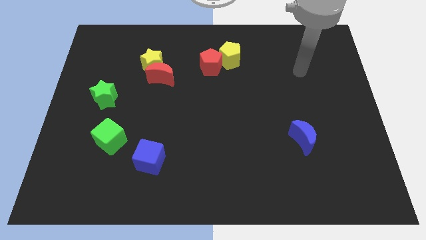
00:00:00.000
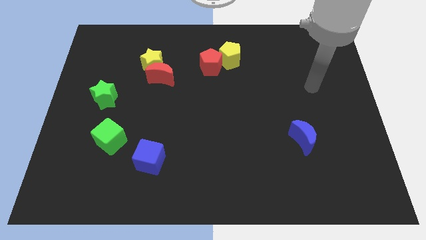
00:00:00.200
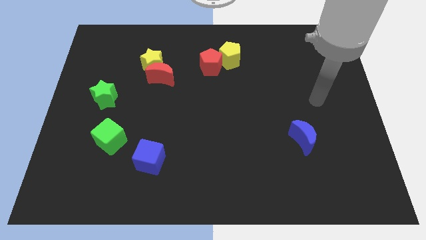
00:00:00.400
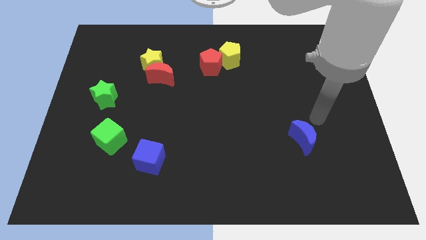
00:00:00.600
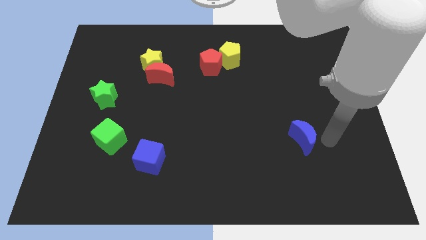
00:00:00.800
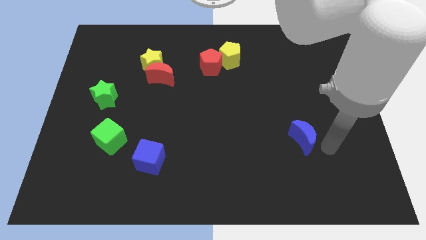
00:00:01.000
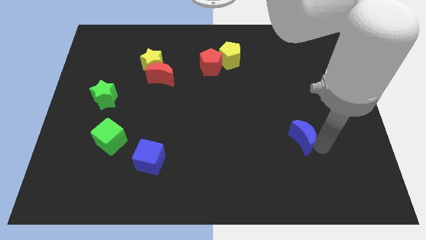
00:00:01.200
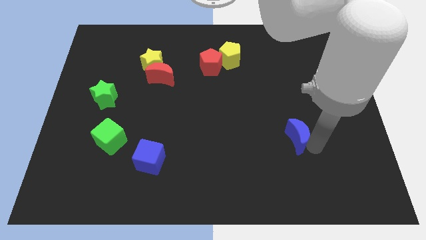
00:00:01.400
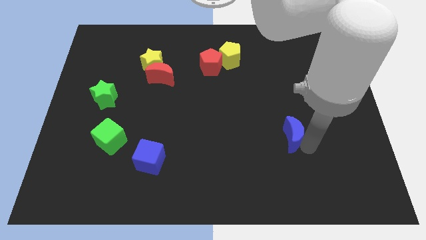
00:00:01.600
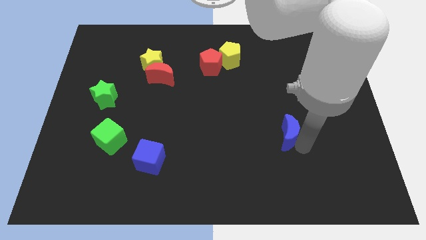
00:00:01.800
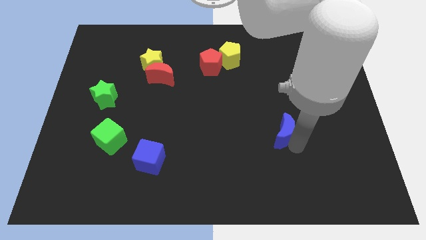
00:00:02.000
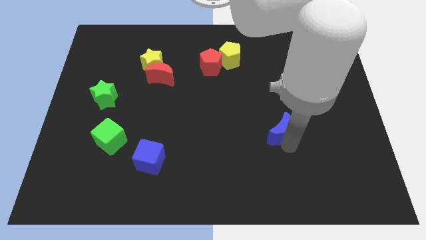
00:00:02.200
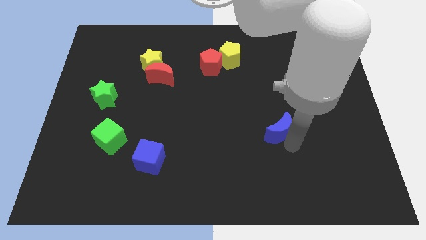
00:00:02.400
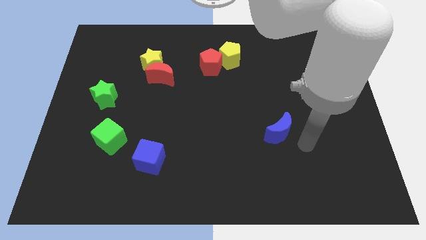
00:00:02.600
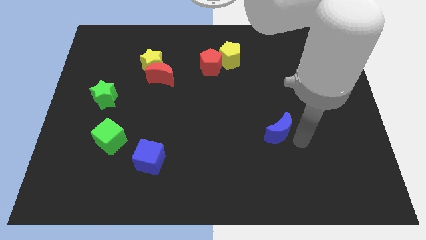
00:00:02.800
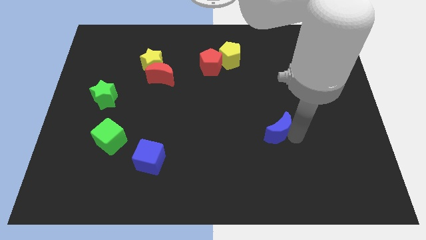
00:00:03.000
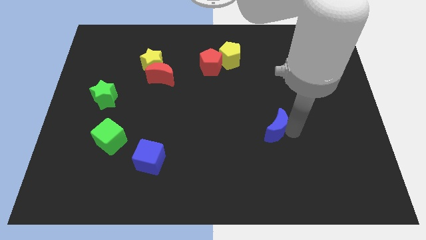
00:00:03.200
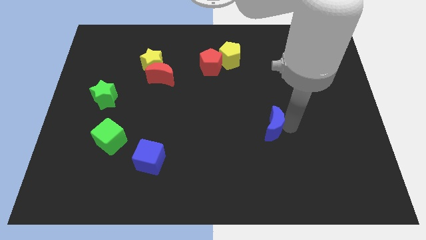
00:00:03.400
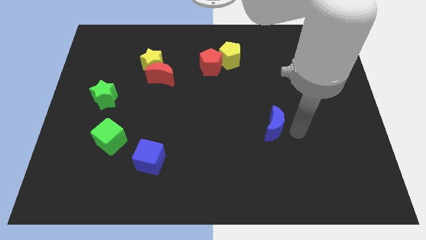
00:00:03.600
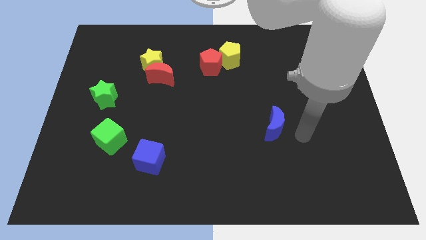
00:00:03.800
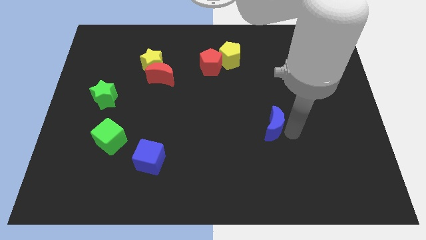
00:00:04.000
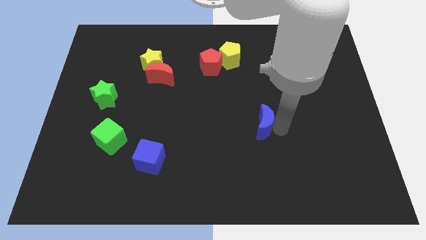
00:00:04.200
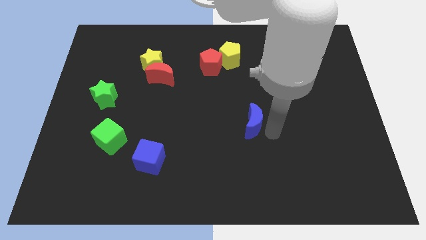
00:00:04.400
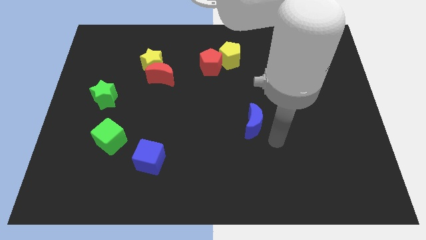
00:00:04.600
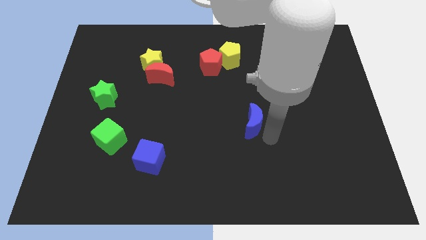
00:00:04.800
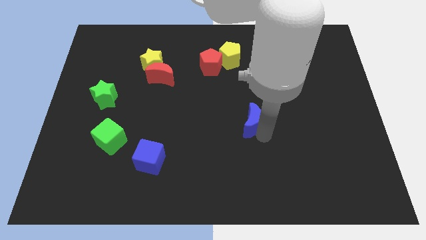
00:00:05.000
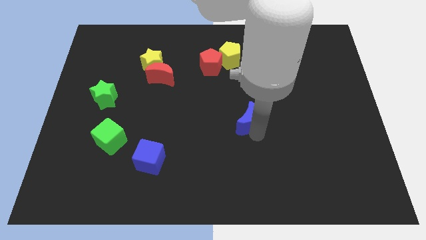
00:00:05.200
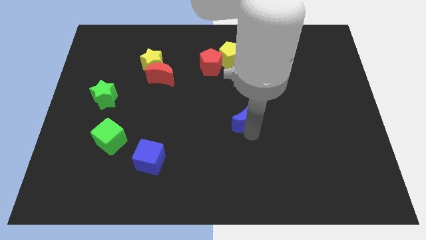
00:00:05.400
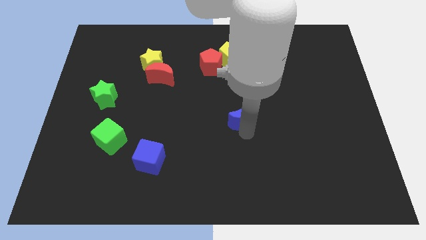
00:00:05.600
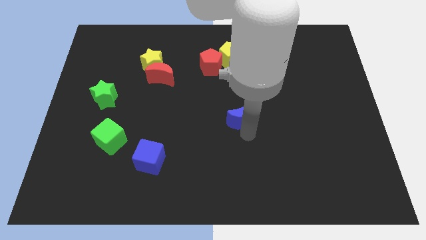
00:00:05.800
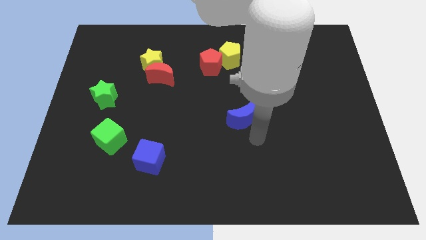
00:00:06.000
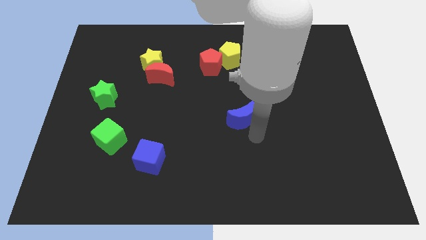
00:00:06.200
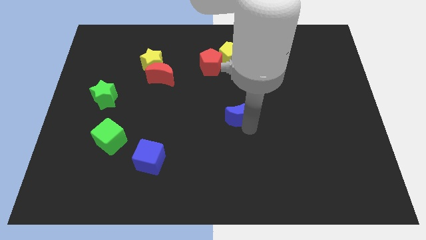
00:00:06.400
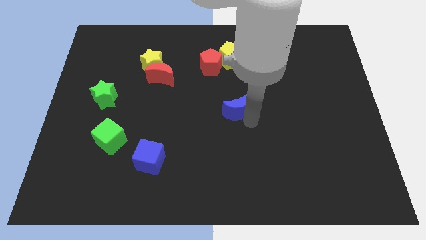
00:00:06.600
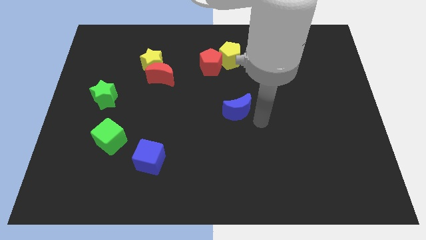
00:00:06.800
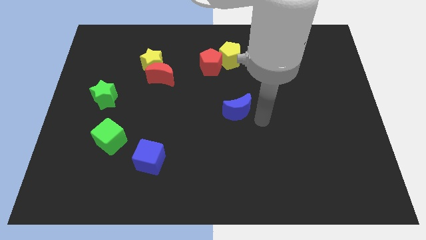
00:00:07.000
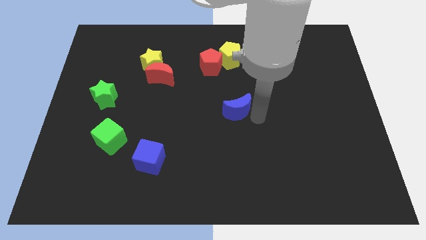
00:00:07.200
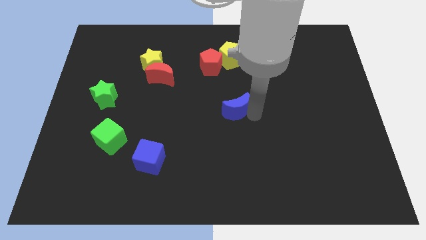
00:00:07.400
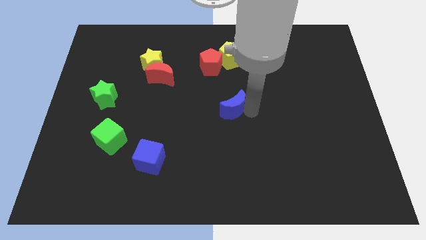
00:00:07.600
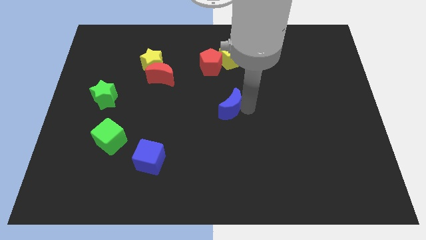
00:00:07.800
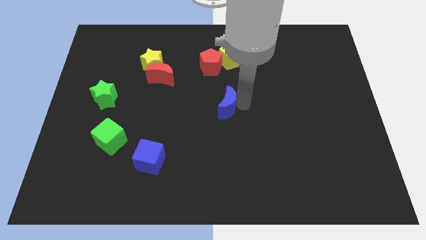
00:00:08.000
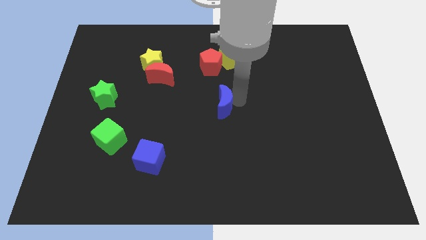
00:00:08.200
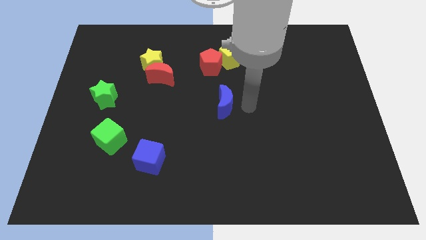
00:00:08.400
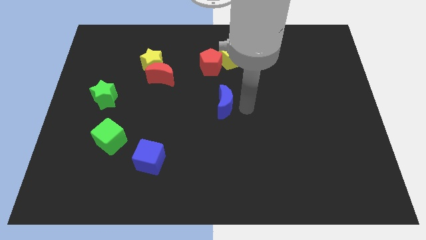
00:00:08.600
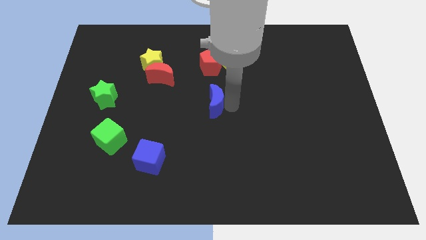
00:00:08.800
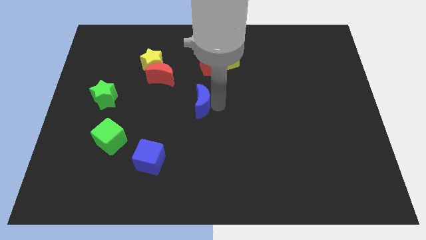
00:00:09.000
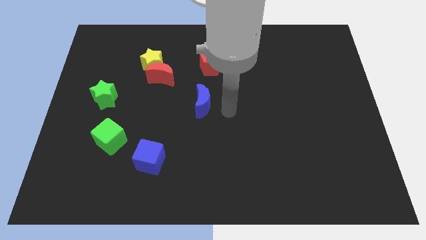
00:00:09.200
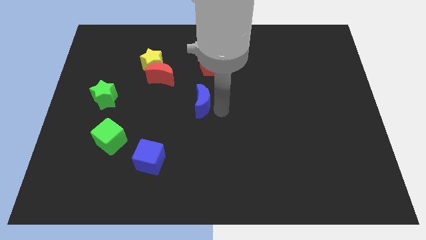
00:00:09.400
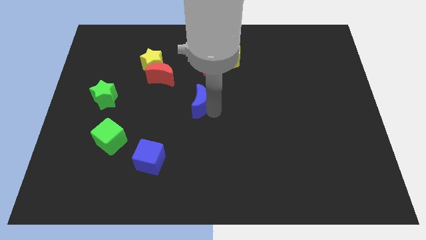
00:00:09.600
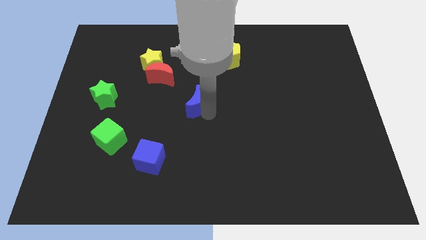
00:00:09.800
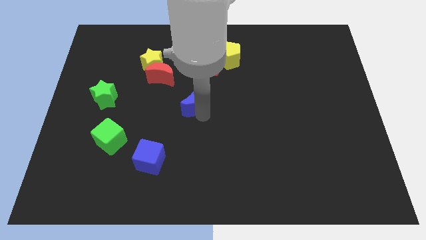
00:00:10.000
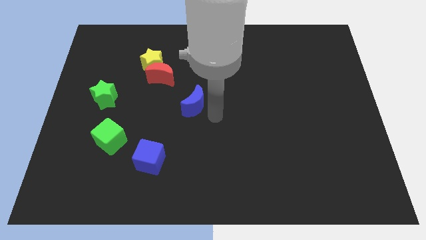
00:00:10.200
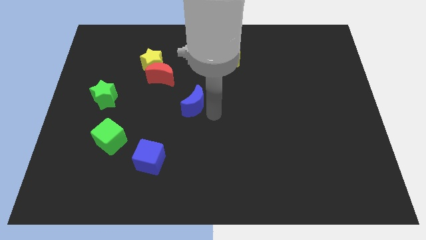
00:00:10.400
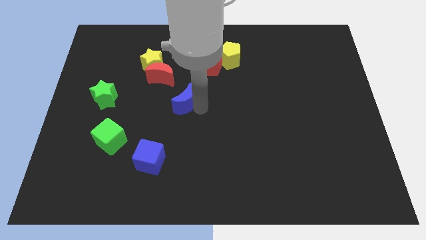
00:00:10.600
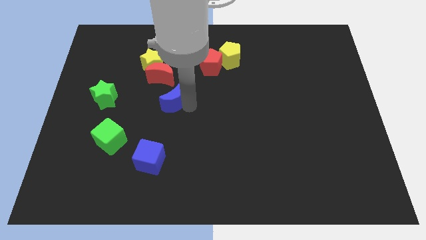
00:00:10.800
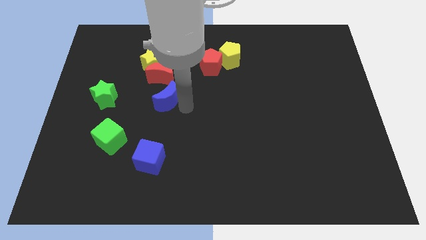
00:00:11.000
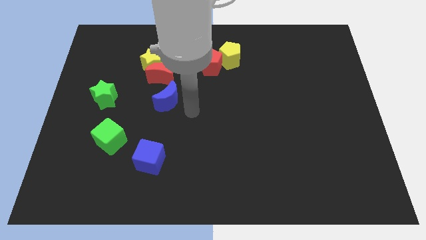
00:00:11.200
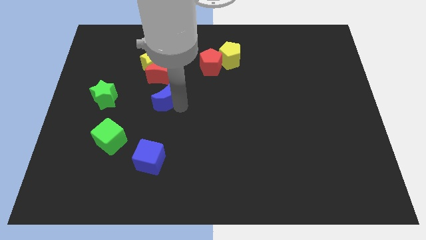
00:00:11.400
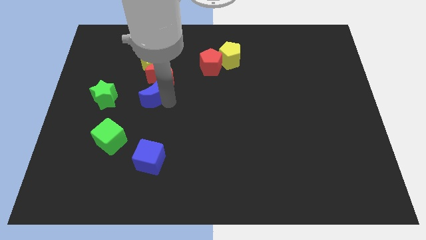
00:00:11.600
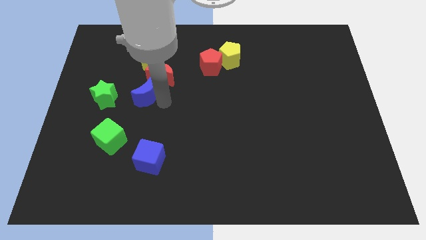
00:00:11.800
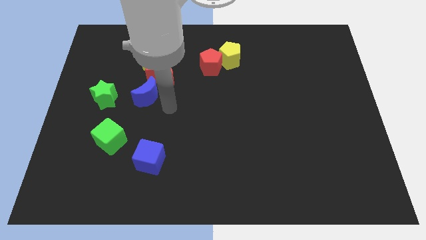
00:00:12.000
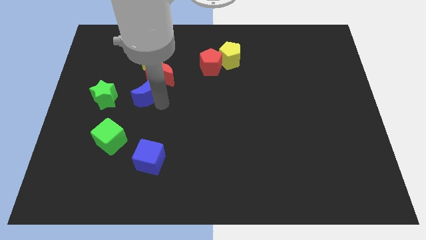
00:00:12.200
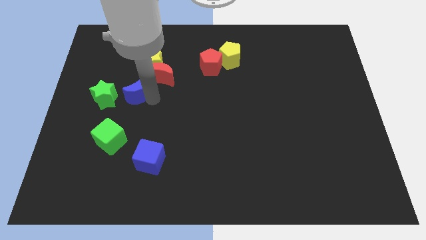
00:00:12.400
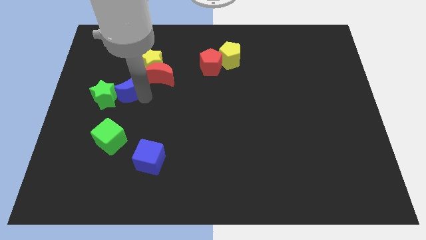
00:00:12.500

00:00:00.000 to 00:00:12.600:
slide the blue moon left of the red moon
